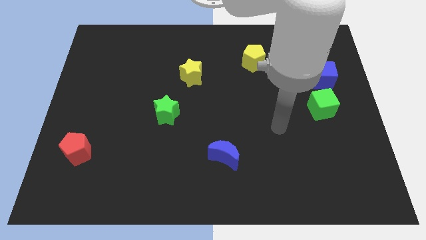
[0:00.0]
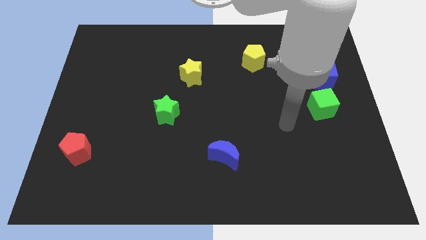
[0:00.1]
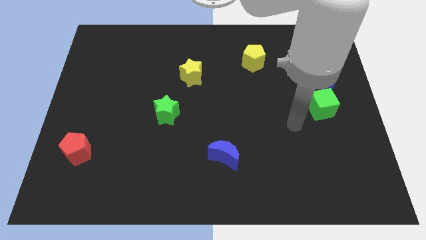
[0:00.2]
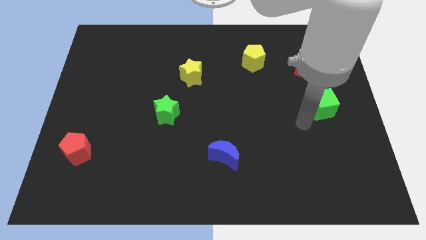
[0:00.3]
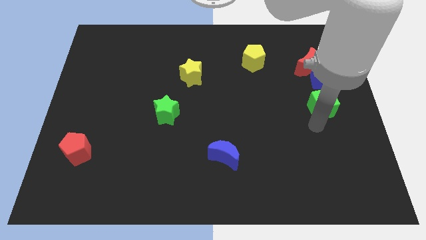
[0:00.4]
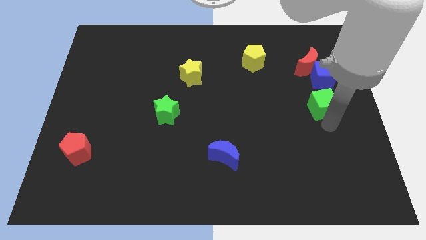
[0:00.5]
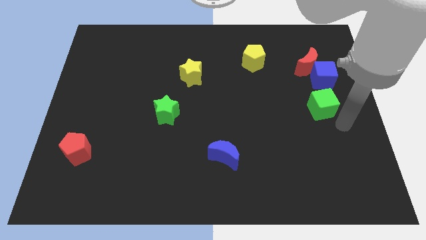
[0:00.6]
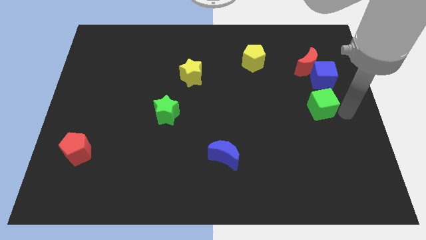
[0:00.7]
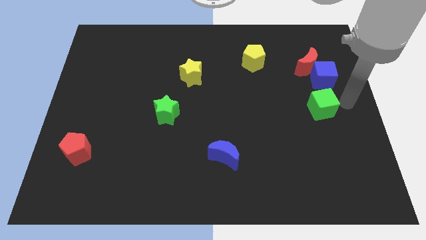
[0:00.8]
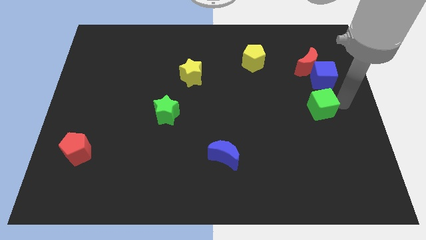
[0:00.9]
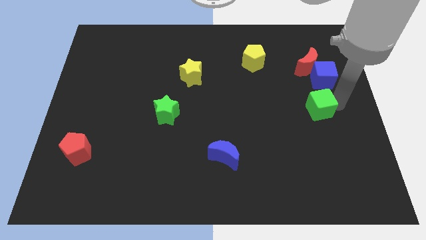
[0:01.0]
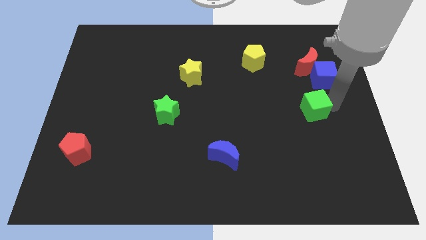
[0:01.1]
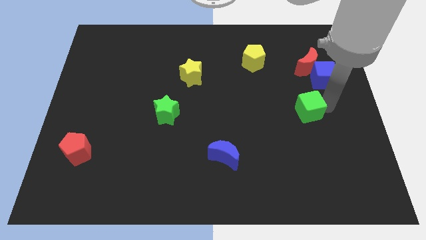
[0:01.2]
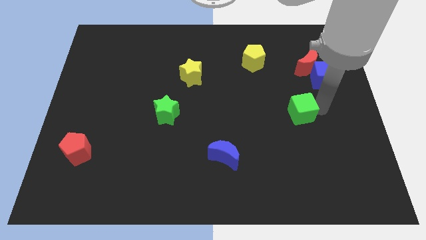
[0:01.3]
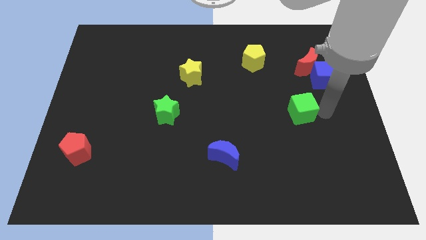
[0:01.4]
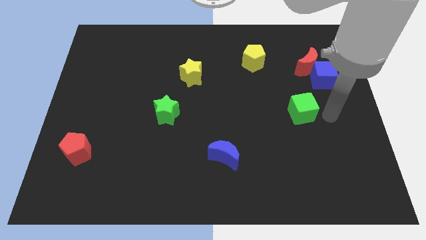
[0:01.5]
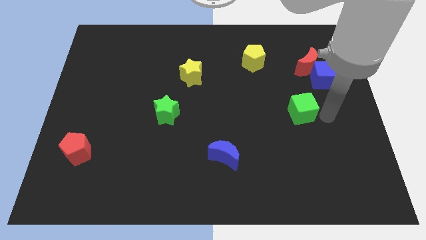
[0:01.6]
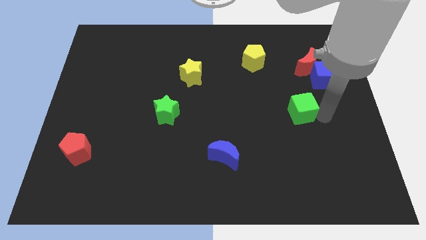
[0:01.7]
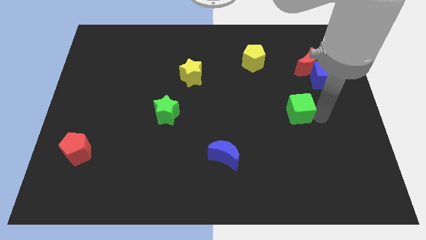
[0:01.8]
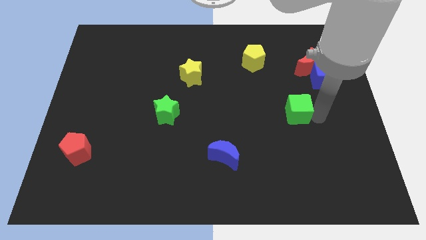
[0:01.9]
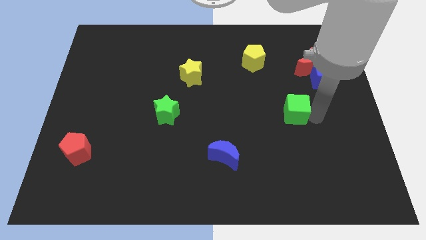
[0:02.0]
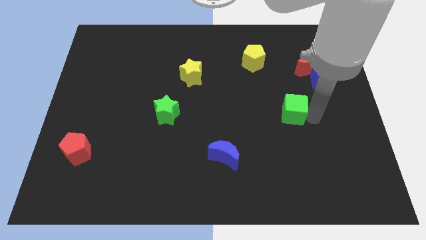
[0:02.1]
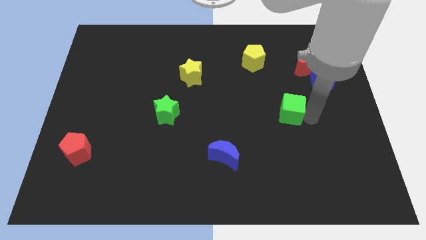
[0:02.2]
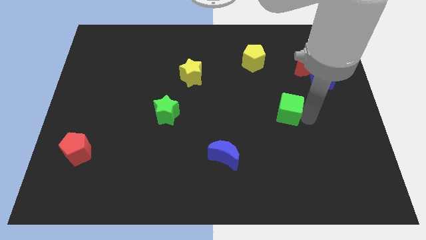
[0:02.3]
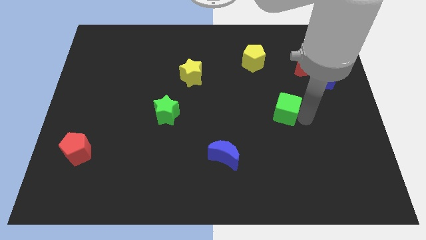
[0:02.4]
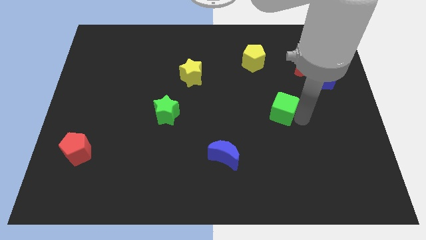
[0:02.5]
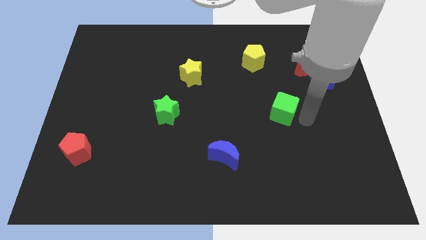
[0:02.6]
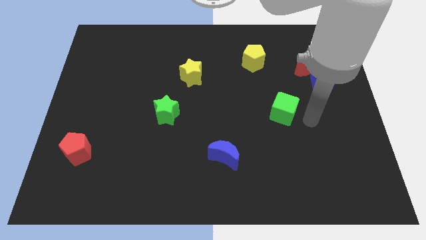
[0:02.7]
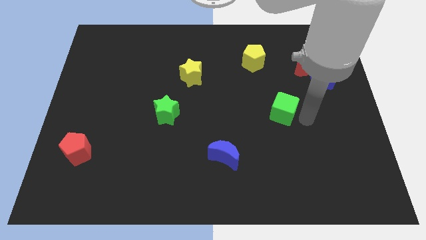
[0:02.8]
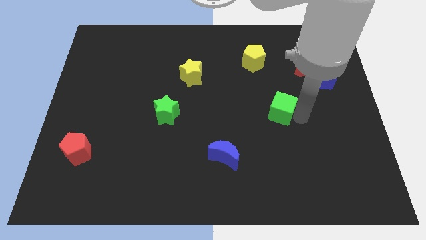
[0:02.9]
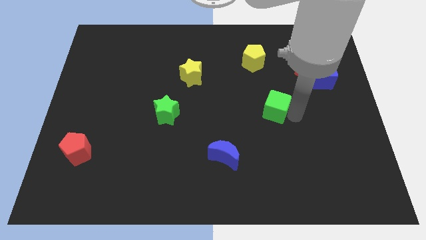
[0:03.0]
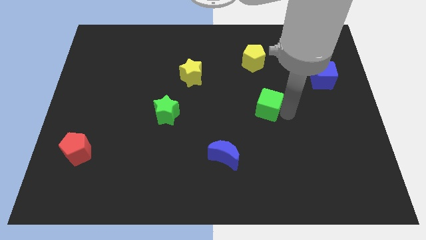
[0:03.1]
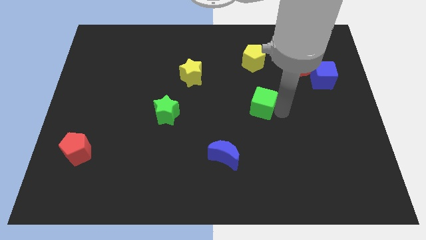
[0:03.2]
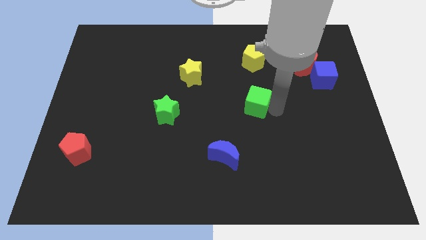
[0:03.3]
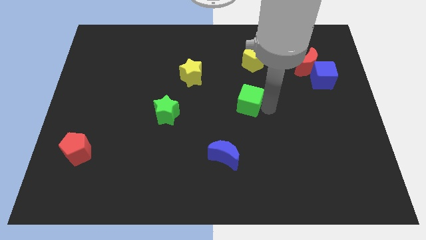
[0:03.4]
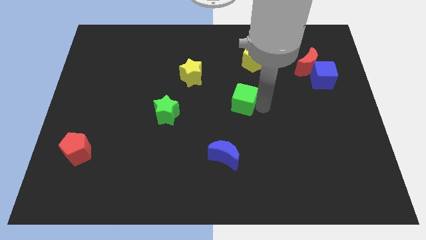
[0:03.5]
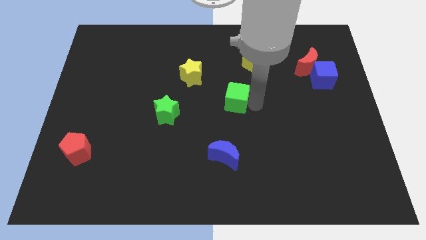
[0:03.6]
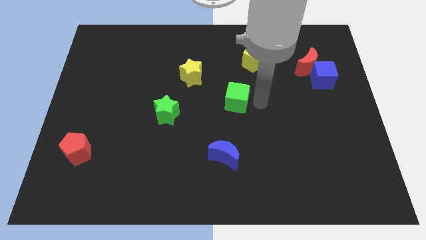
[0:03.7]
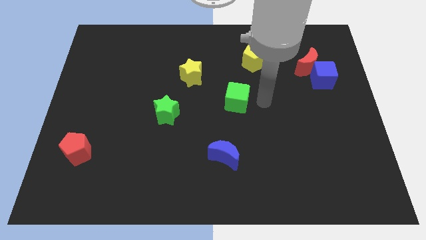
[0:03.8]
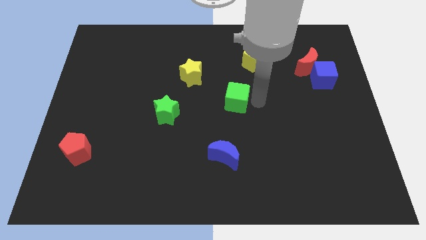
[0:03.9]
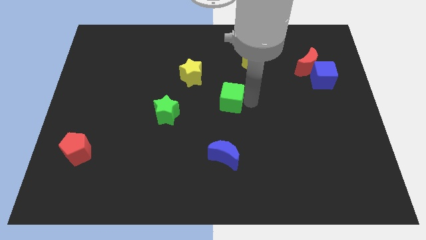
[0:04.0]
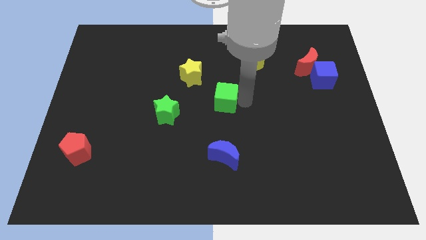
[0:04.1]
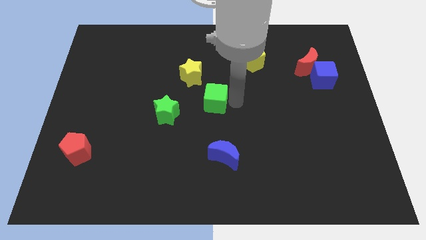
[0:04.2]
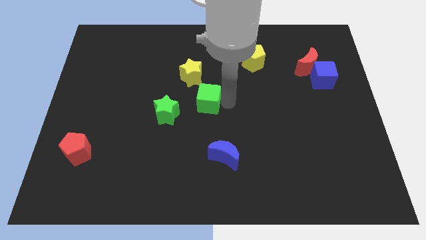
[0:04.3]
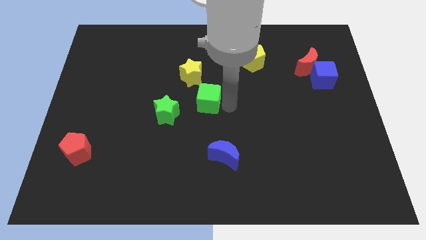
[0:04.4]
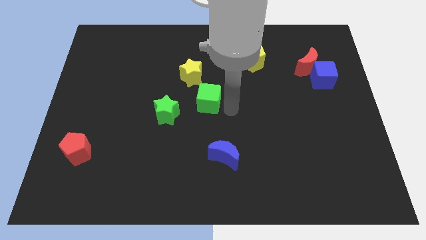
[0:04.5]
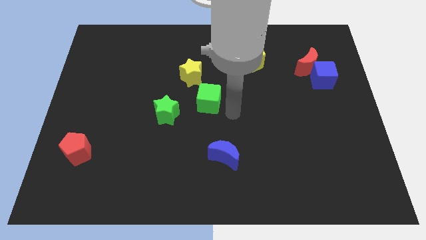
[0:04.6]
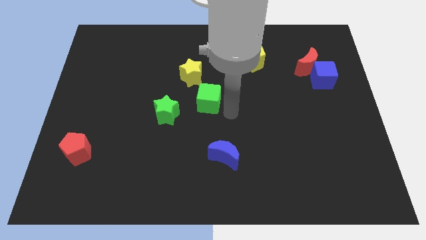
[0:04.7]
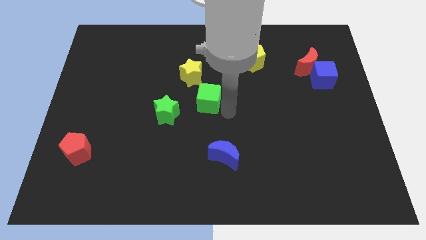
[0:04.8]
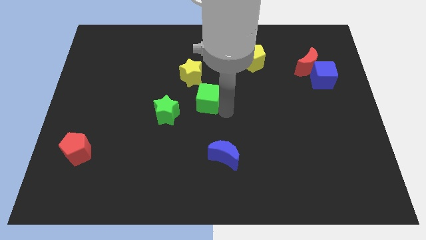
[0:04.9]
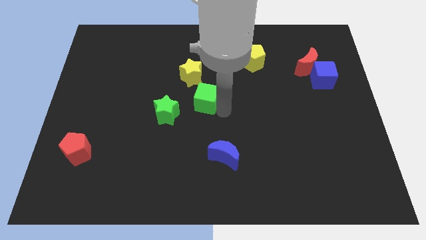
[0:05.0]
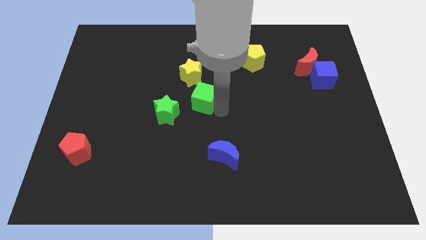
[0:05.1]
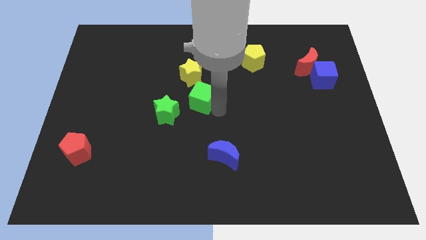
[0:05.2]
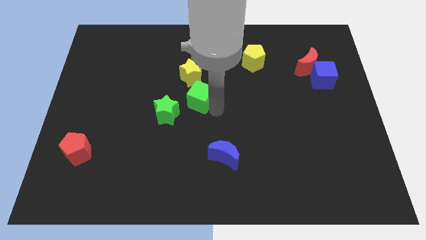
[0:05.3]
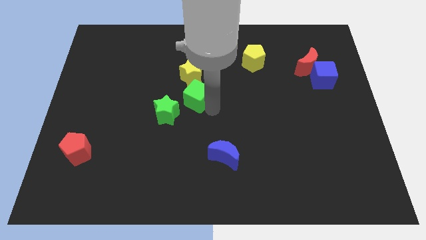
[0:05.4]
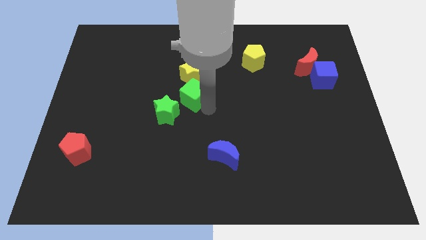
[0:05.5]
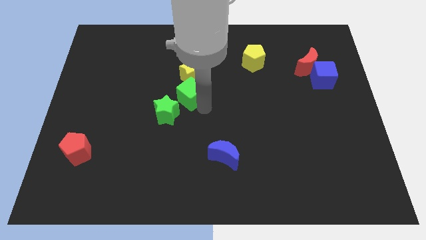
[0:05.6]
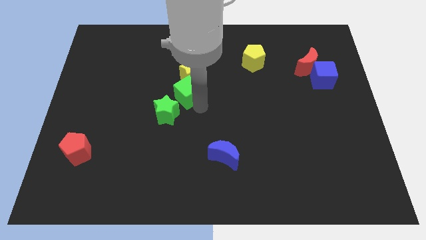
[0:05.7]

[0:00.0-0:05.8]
move the green cube to the top of the green star

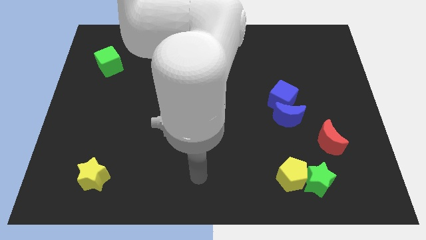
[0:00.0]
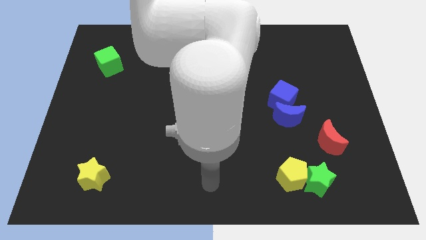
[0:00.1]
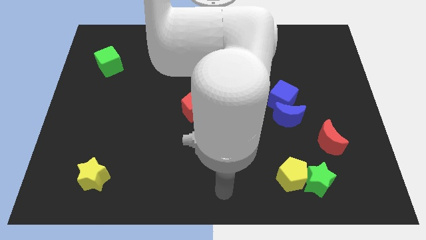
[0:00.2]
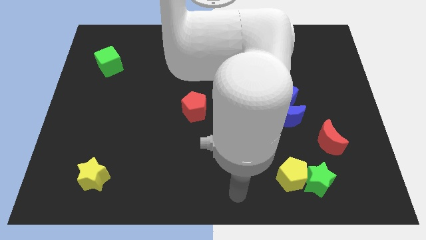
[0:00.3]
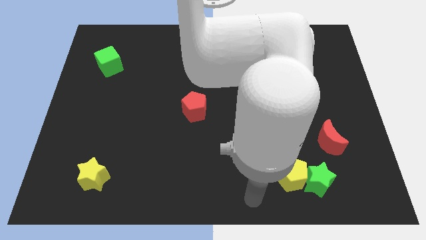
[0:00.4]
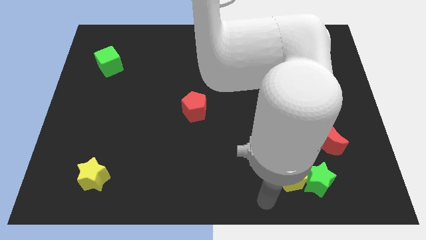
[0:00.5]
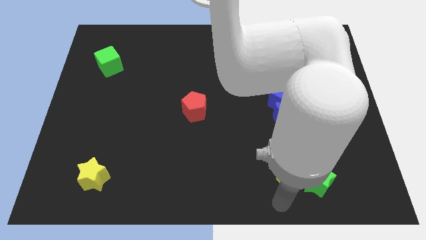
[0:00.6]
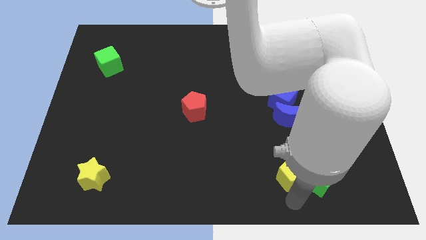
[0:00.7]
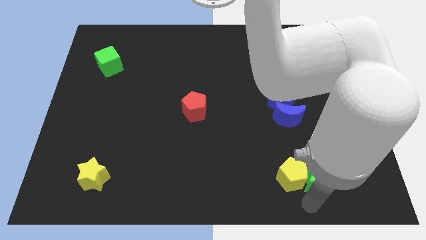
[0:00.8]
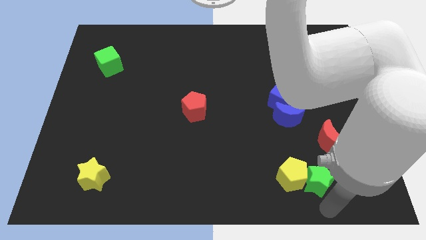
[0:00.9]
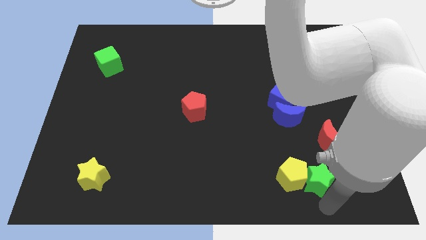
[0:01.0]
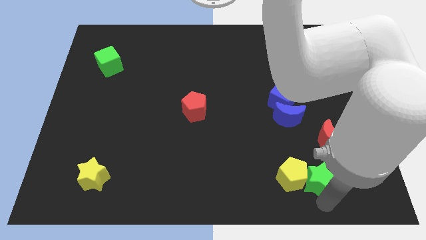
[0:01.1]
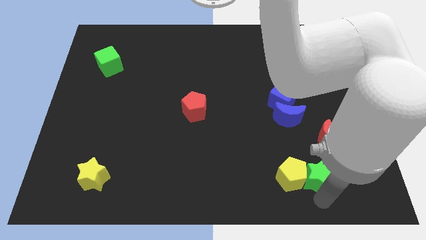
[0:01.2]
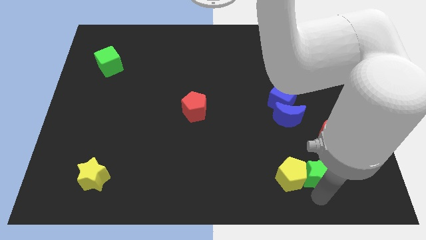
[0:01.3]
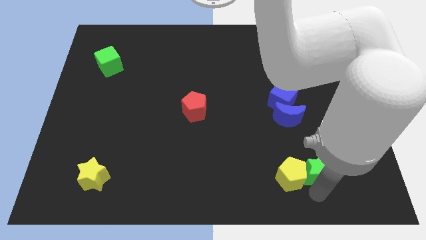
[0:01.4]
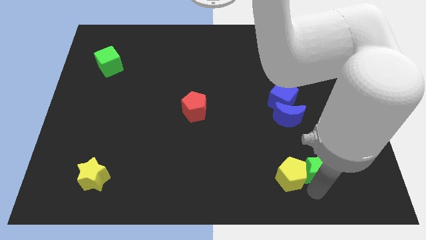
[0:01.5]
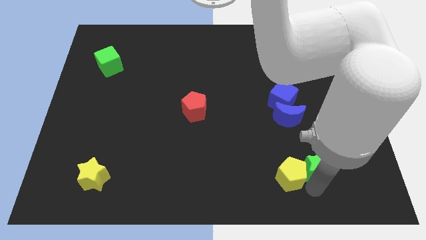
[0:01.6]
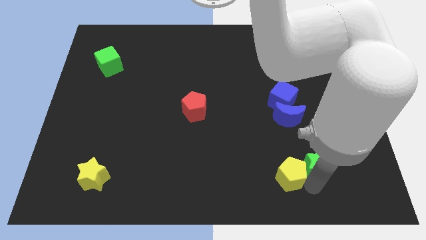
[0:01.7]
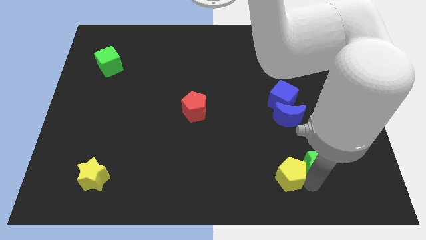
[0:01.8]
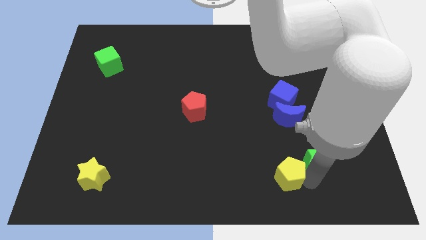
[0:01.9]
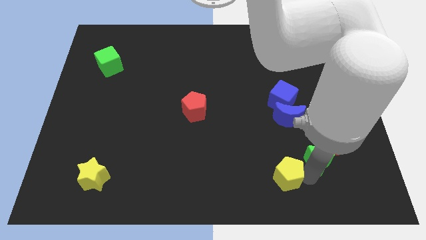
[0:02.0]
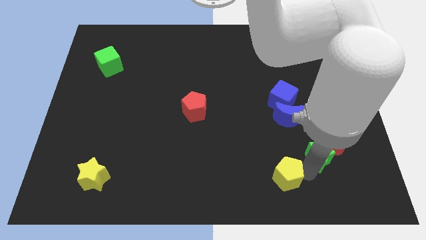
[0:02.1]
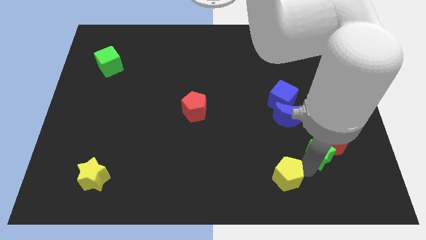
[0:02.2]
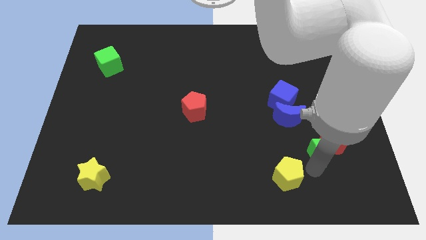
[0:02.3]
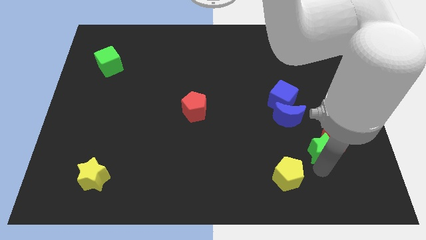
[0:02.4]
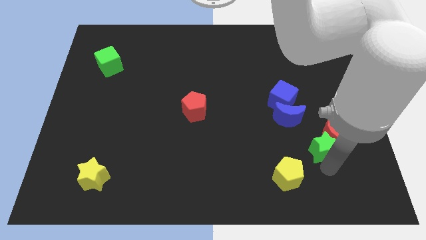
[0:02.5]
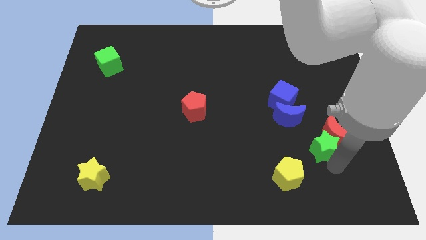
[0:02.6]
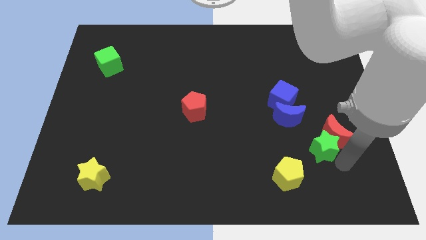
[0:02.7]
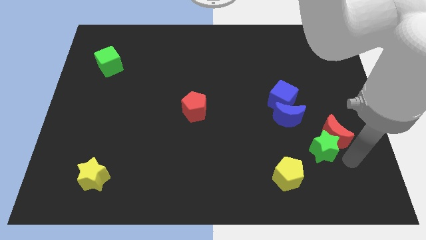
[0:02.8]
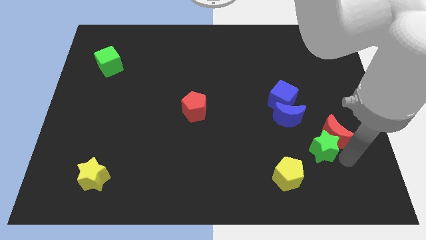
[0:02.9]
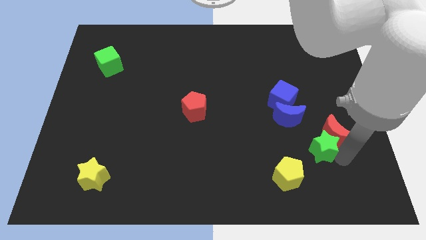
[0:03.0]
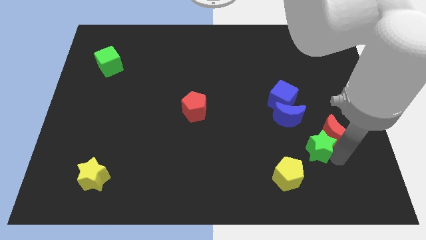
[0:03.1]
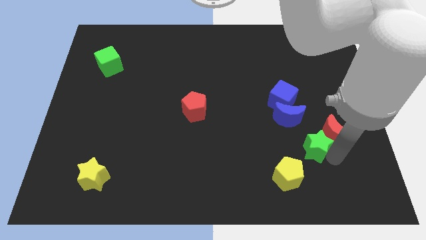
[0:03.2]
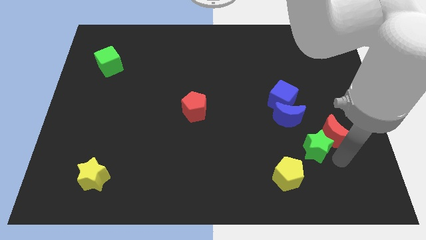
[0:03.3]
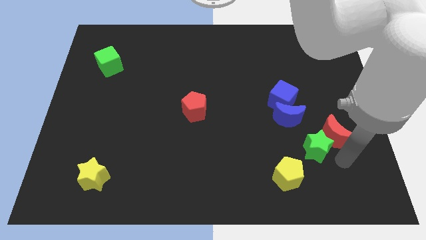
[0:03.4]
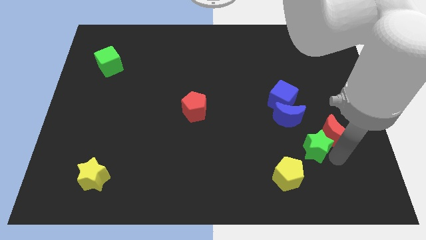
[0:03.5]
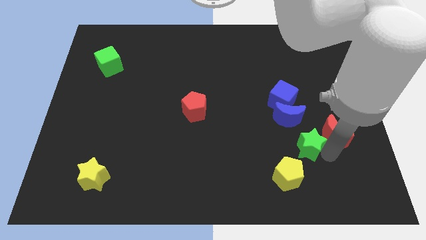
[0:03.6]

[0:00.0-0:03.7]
push the green star to the bottom side of the blue cube
